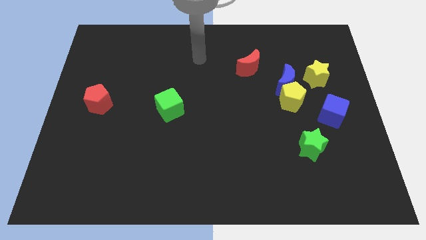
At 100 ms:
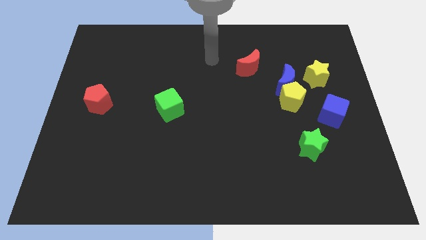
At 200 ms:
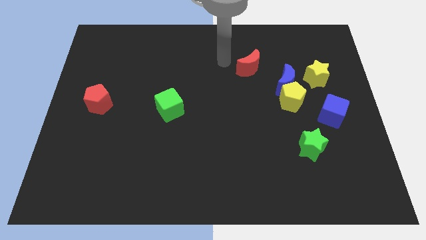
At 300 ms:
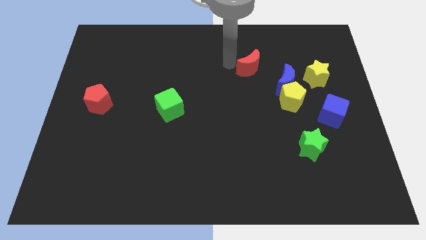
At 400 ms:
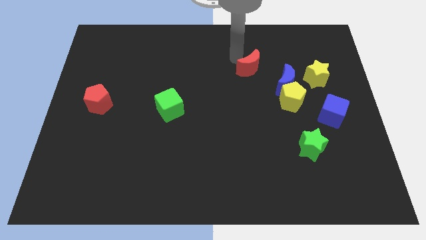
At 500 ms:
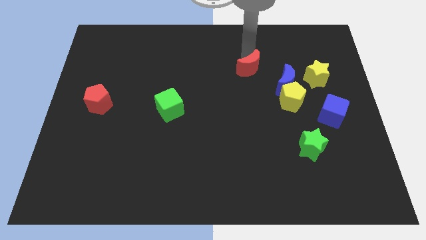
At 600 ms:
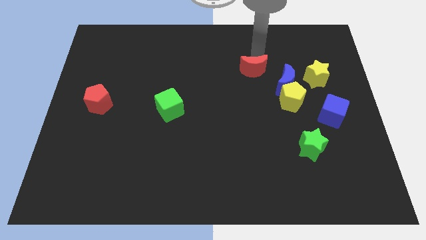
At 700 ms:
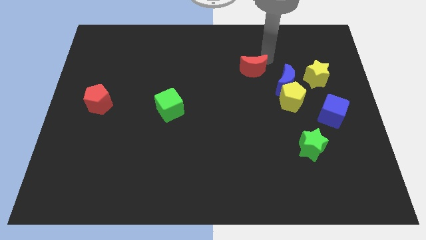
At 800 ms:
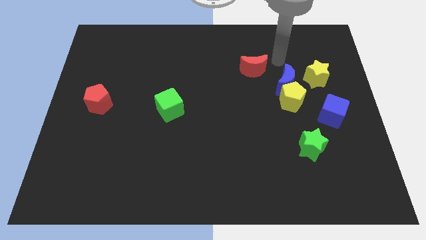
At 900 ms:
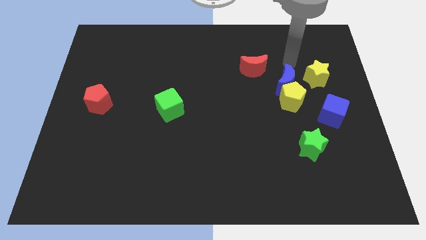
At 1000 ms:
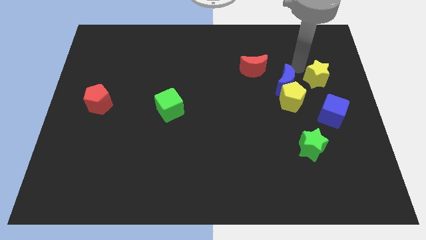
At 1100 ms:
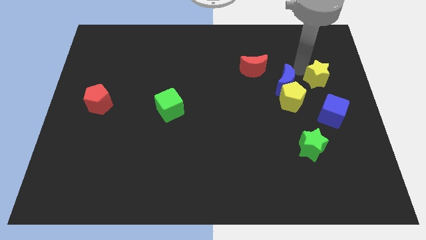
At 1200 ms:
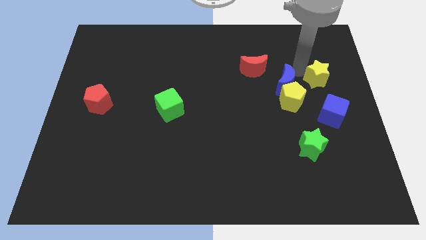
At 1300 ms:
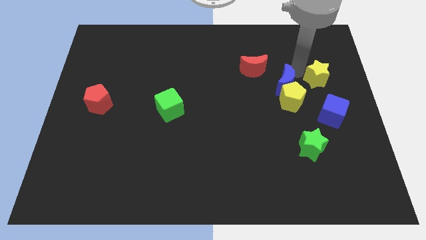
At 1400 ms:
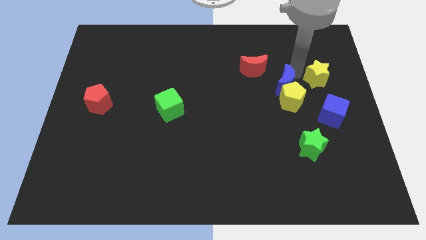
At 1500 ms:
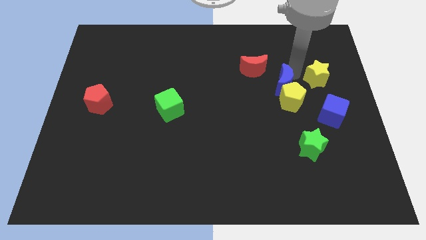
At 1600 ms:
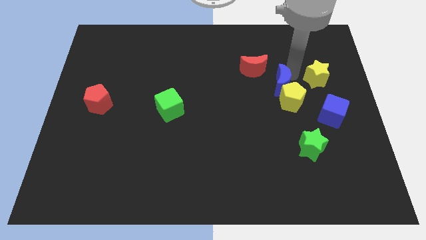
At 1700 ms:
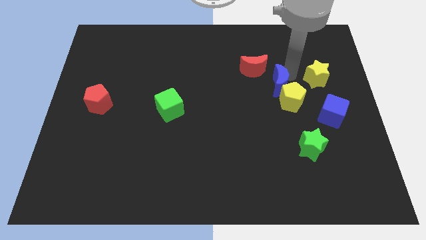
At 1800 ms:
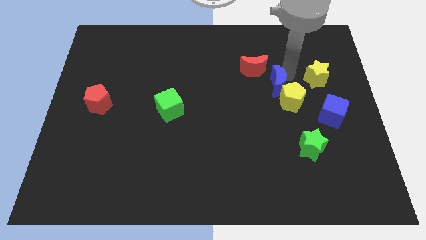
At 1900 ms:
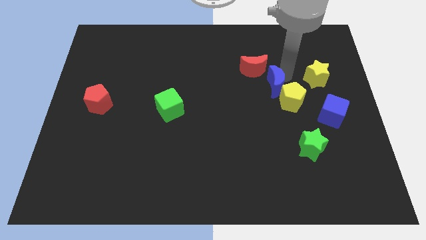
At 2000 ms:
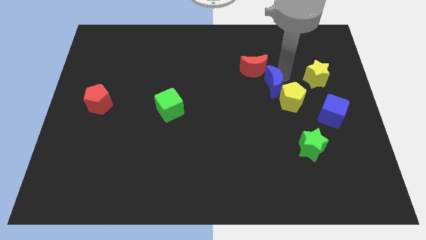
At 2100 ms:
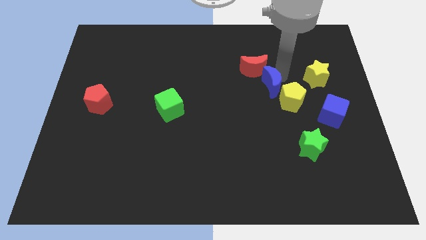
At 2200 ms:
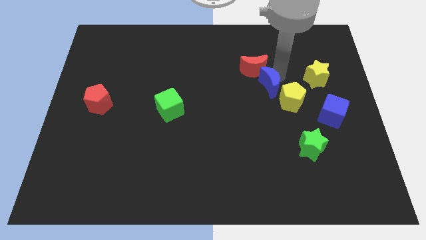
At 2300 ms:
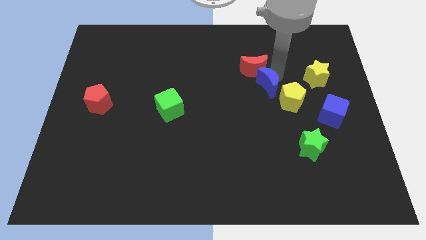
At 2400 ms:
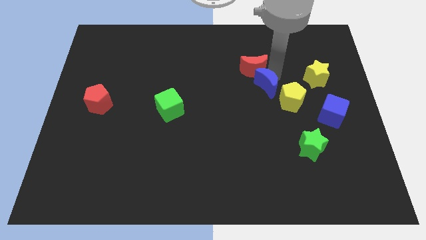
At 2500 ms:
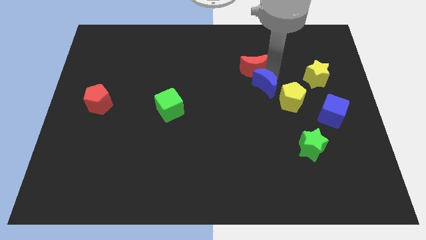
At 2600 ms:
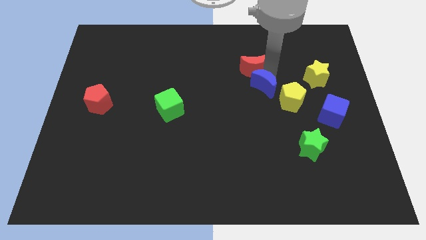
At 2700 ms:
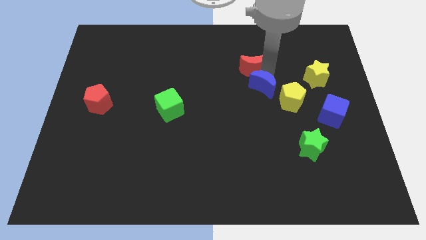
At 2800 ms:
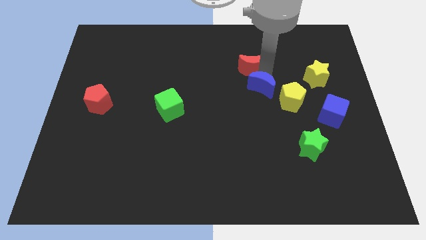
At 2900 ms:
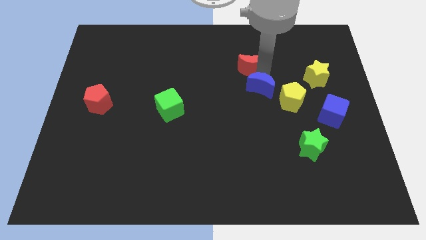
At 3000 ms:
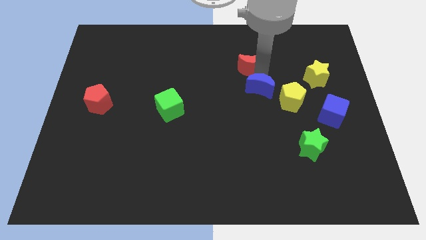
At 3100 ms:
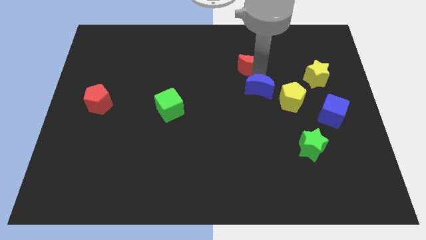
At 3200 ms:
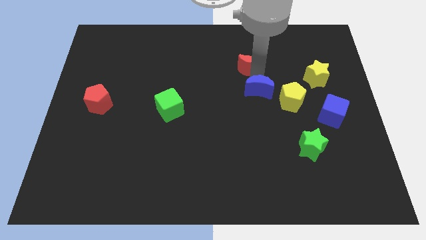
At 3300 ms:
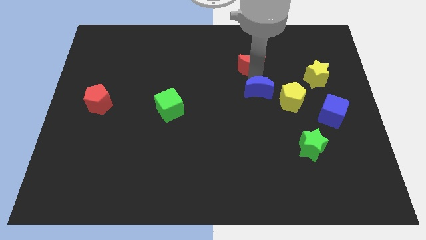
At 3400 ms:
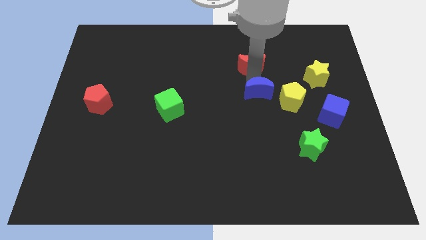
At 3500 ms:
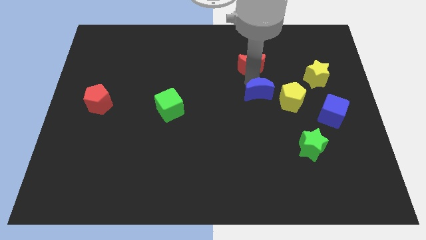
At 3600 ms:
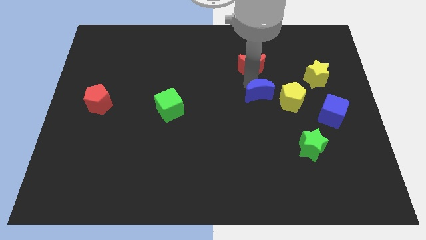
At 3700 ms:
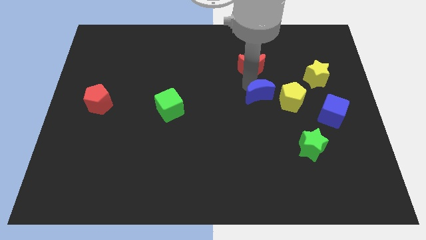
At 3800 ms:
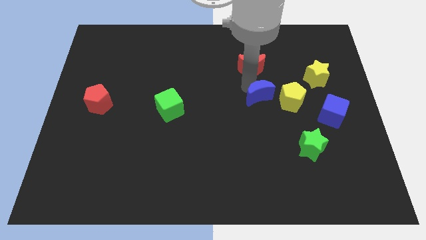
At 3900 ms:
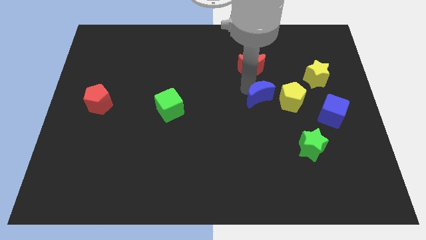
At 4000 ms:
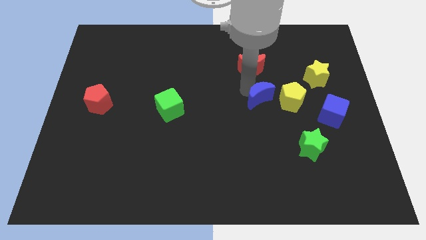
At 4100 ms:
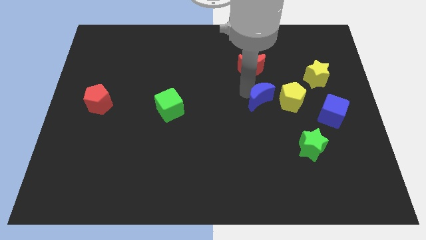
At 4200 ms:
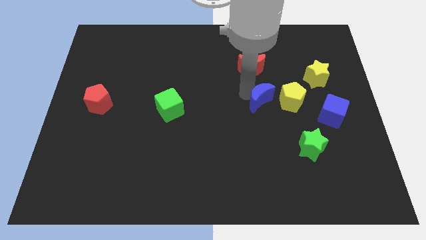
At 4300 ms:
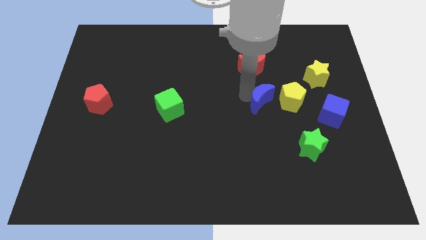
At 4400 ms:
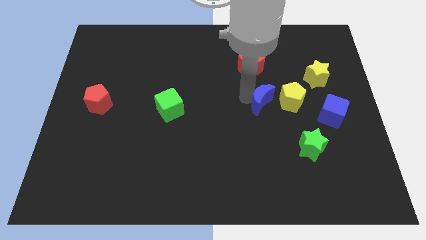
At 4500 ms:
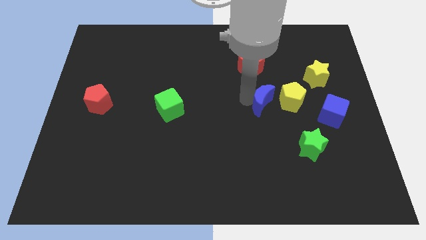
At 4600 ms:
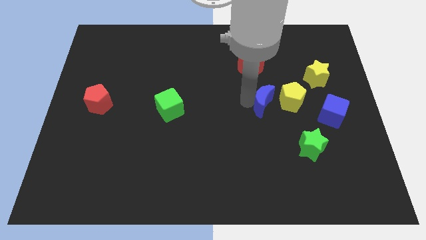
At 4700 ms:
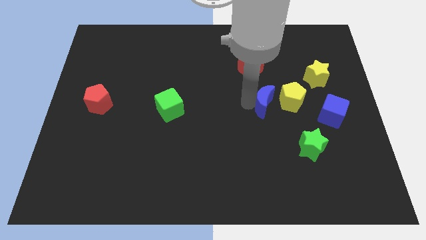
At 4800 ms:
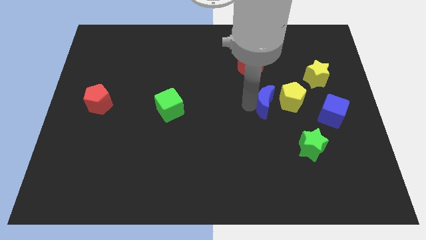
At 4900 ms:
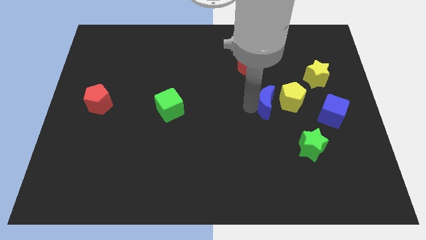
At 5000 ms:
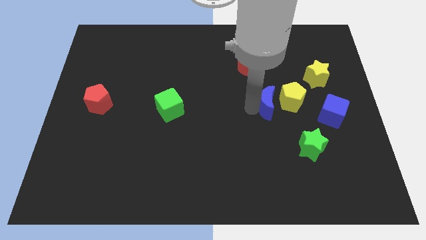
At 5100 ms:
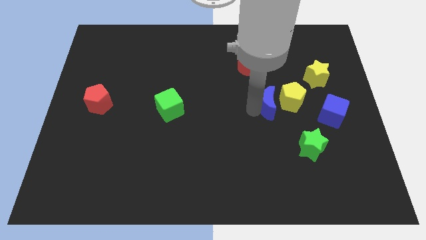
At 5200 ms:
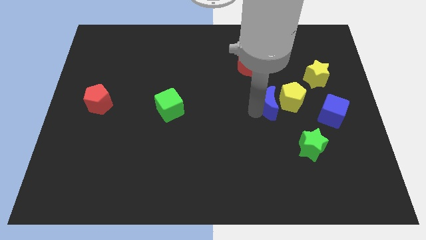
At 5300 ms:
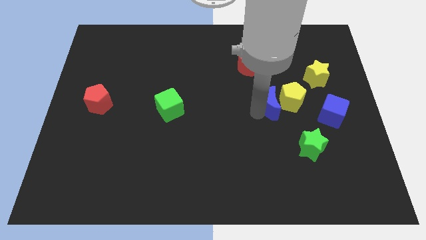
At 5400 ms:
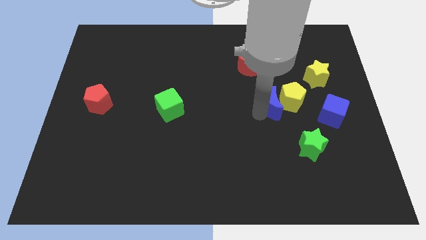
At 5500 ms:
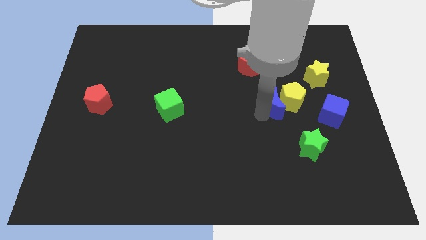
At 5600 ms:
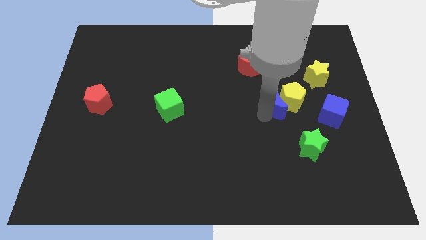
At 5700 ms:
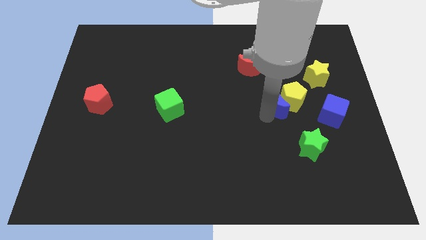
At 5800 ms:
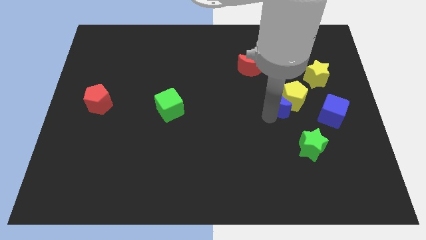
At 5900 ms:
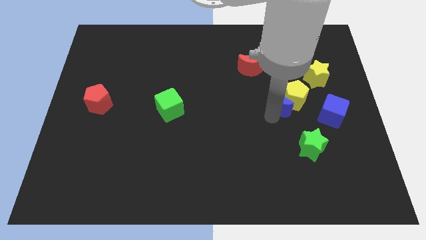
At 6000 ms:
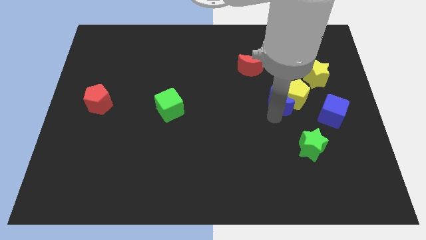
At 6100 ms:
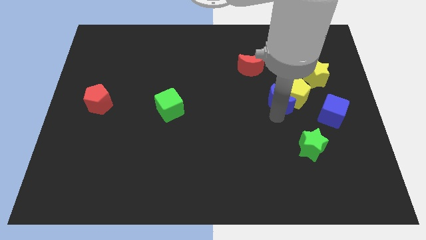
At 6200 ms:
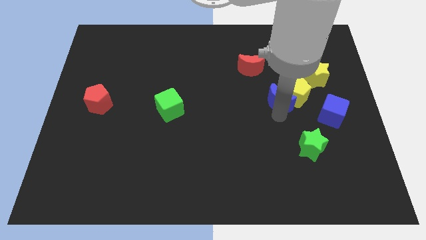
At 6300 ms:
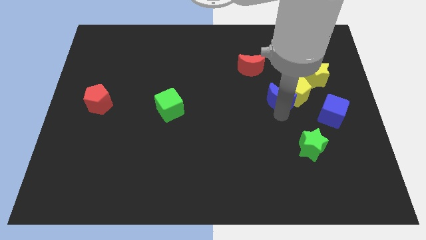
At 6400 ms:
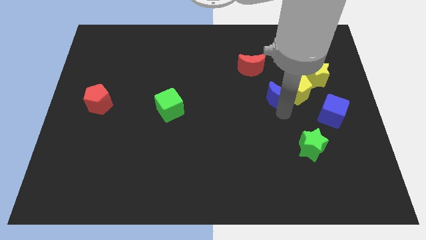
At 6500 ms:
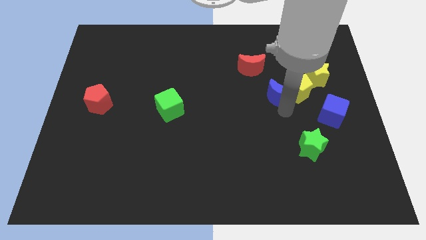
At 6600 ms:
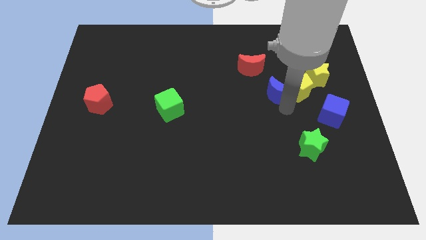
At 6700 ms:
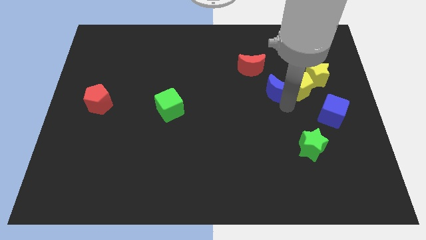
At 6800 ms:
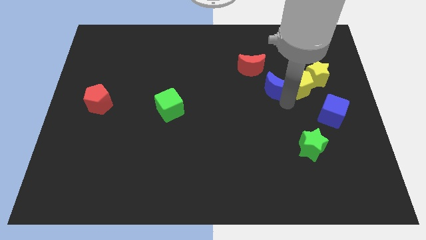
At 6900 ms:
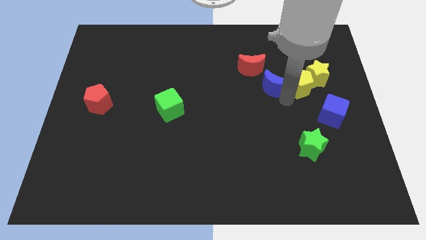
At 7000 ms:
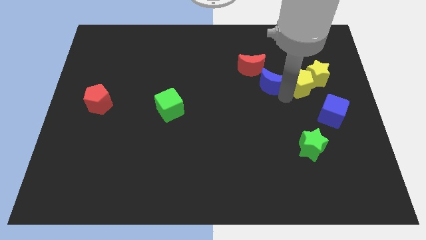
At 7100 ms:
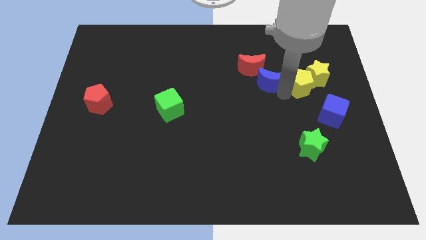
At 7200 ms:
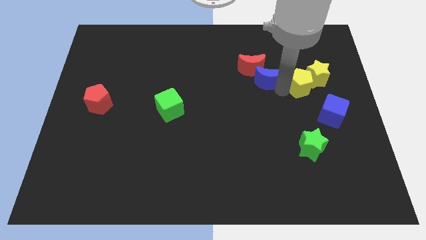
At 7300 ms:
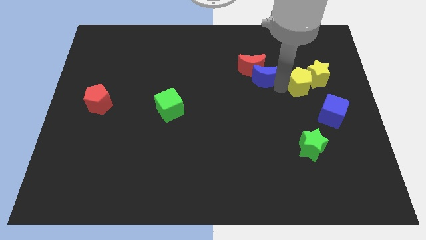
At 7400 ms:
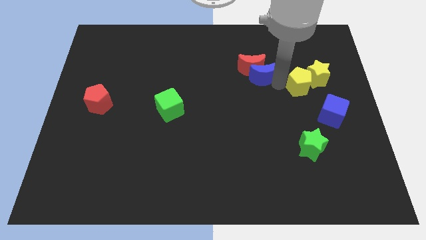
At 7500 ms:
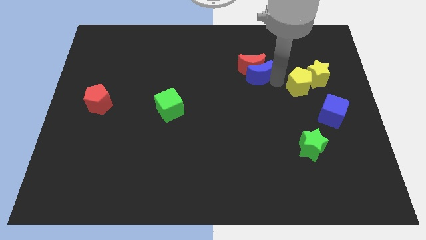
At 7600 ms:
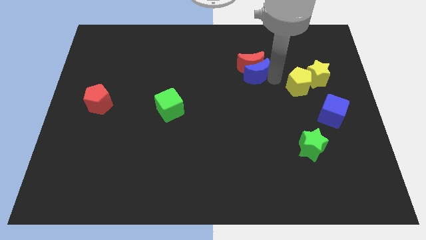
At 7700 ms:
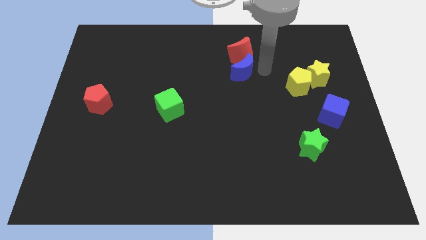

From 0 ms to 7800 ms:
pull the blue moon apart from the yellow pentagon, yellow star, and red moon

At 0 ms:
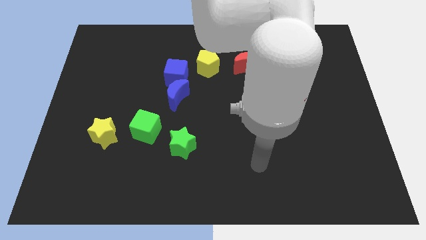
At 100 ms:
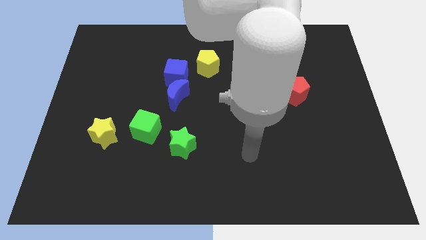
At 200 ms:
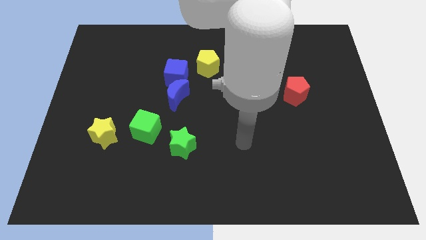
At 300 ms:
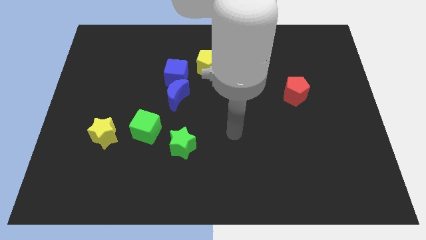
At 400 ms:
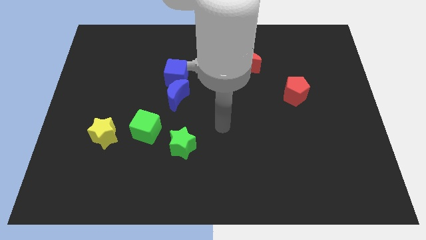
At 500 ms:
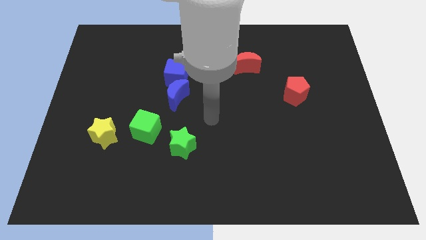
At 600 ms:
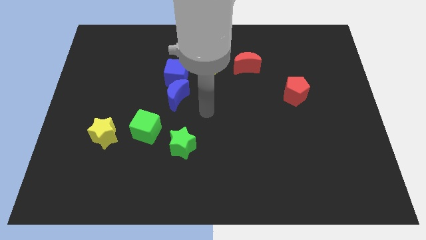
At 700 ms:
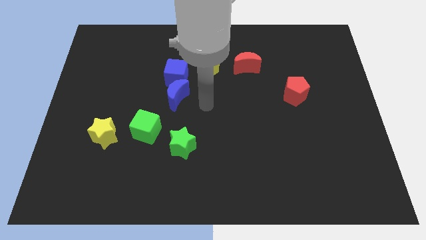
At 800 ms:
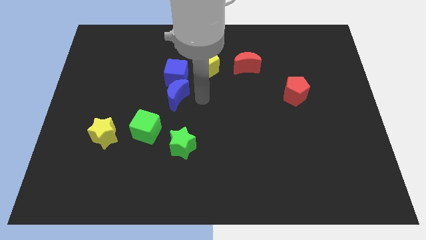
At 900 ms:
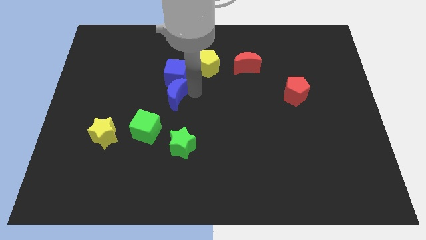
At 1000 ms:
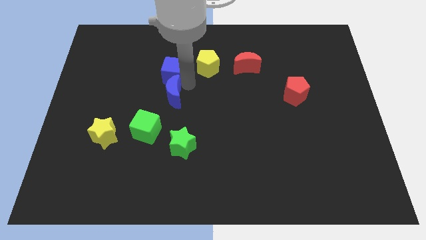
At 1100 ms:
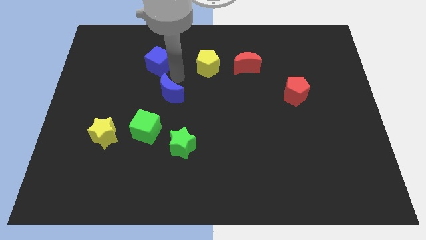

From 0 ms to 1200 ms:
separate the blue moon from the blue cube

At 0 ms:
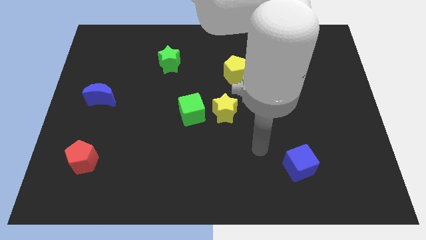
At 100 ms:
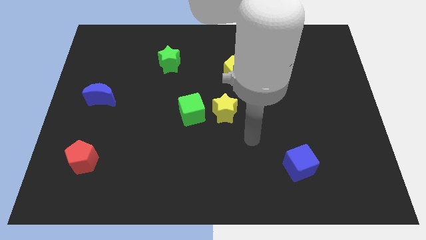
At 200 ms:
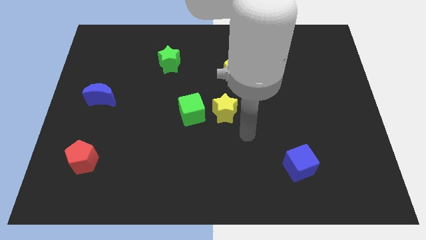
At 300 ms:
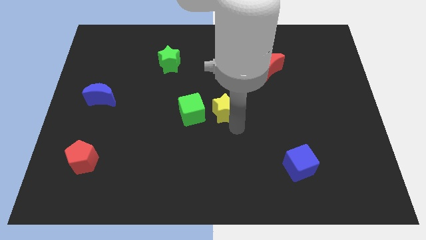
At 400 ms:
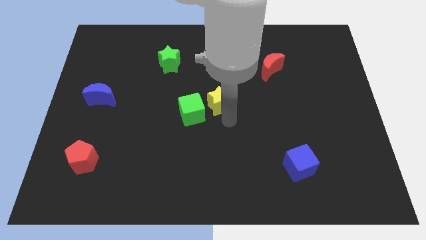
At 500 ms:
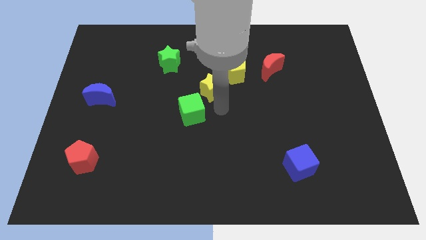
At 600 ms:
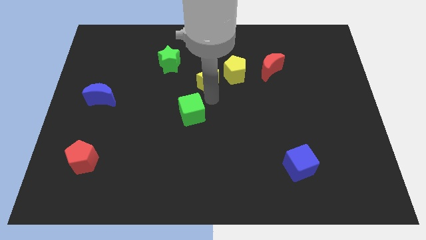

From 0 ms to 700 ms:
move the green cube away from the yellow star
